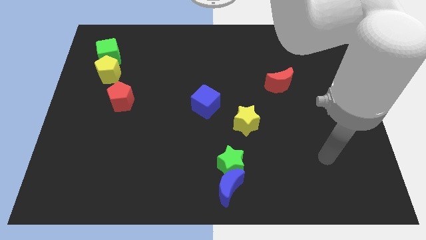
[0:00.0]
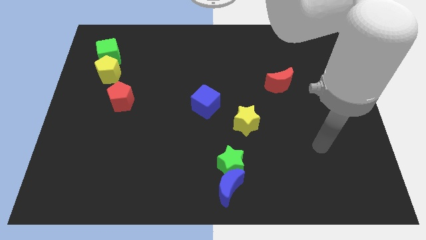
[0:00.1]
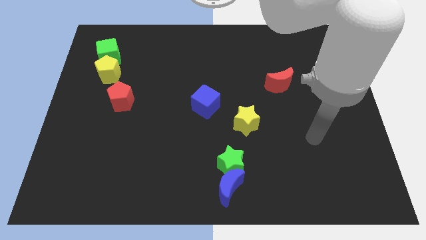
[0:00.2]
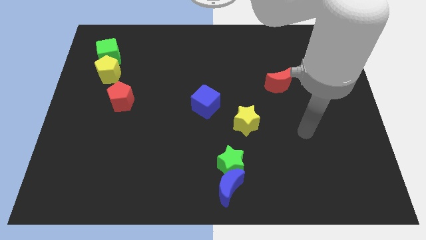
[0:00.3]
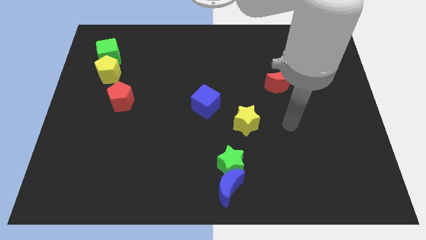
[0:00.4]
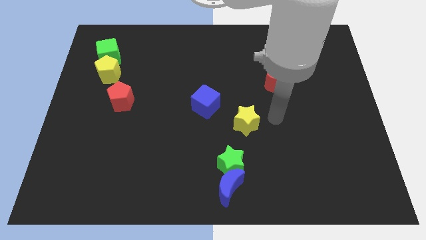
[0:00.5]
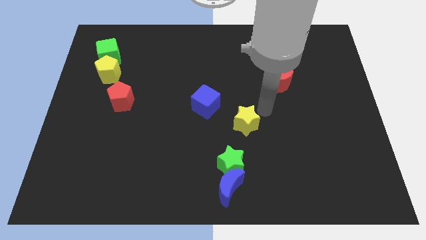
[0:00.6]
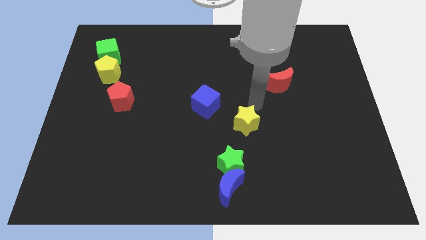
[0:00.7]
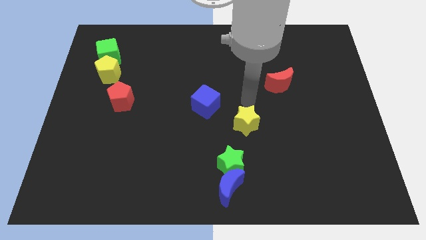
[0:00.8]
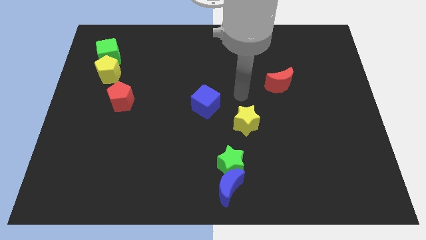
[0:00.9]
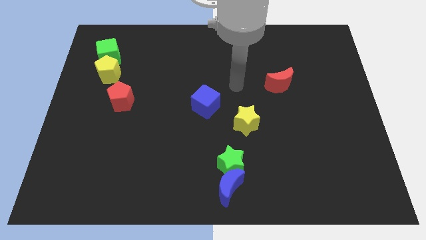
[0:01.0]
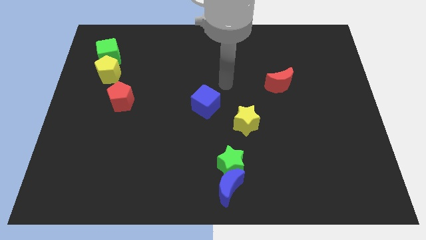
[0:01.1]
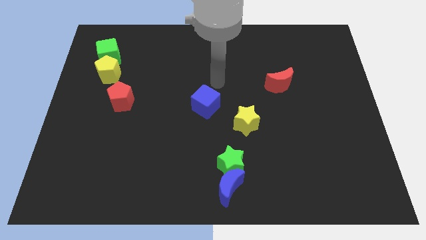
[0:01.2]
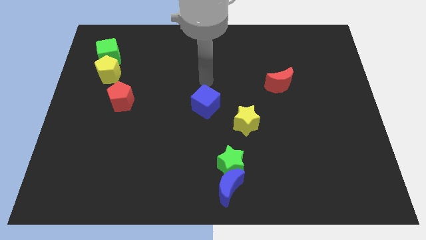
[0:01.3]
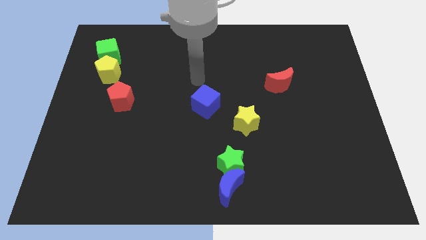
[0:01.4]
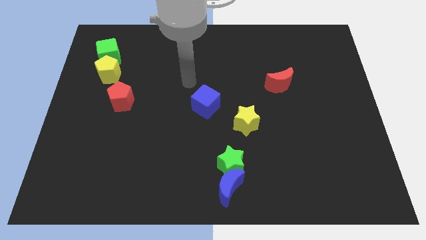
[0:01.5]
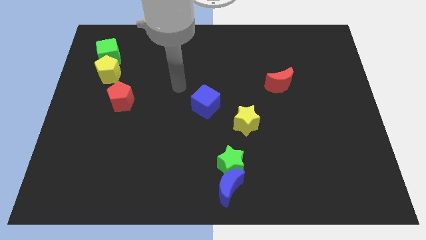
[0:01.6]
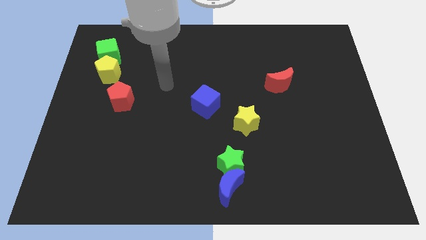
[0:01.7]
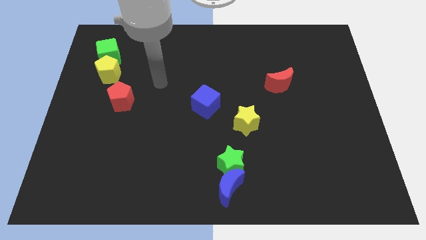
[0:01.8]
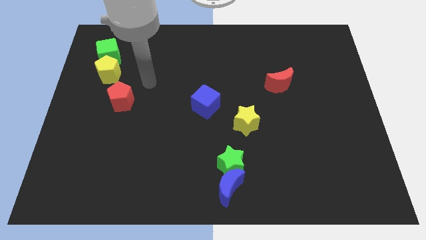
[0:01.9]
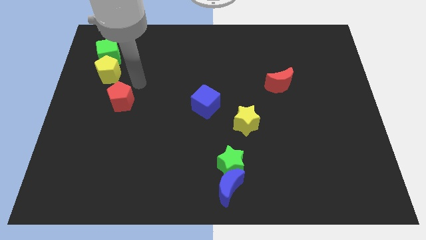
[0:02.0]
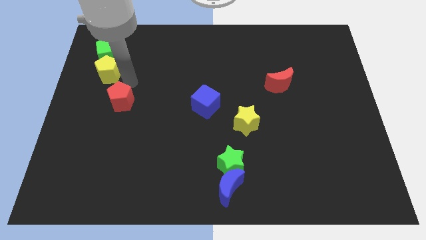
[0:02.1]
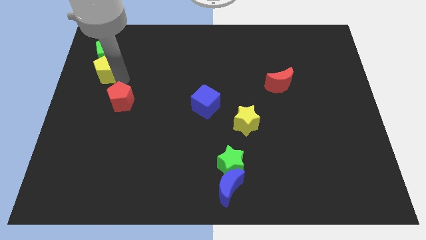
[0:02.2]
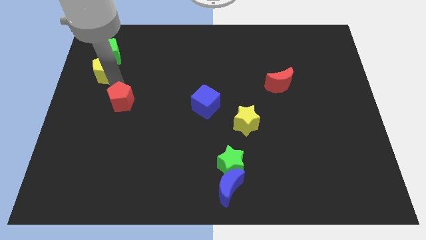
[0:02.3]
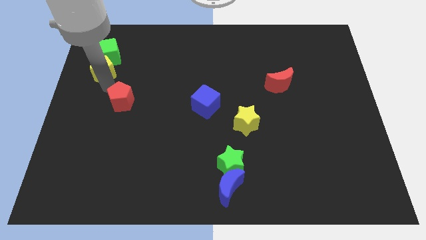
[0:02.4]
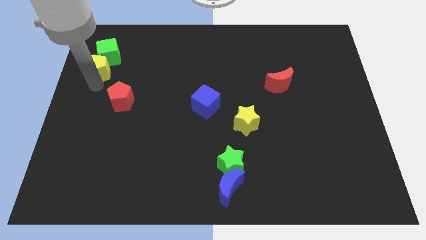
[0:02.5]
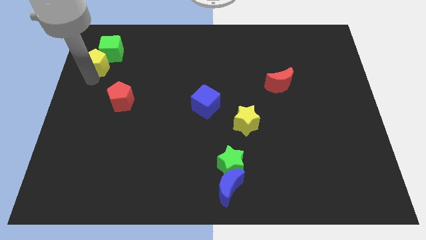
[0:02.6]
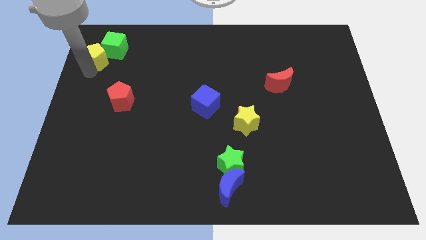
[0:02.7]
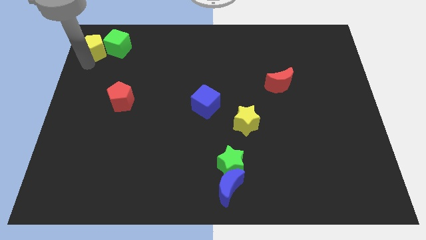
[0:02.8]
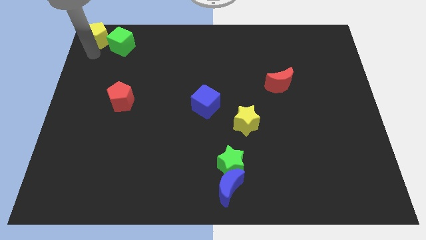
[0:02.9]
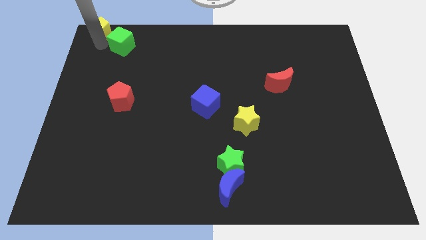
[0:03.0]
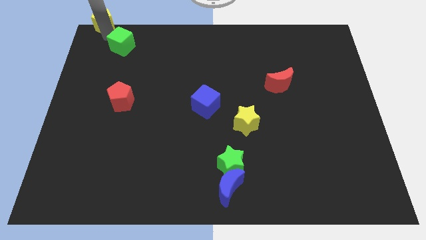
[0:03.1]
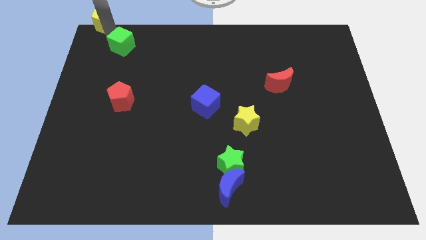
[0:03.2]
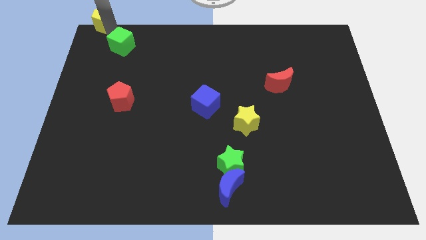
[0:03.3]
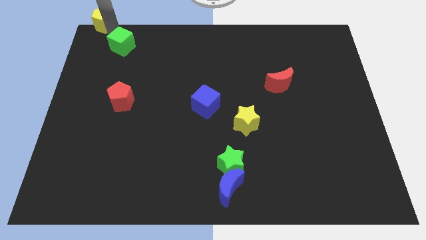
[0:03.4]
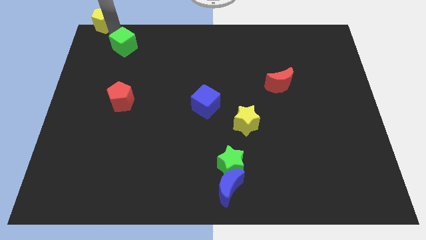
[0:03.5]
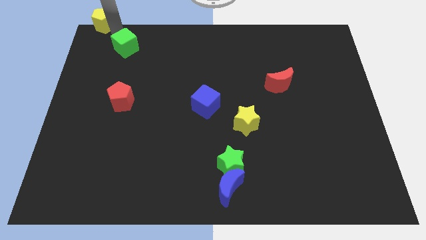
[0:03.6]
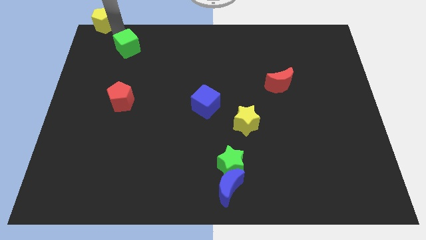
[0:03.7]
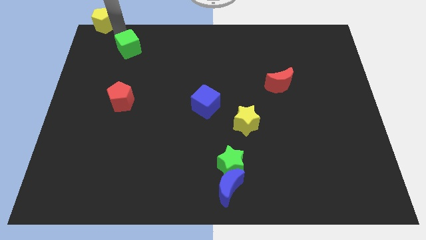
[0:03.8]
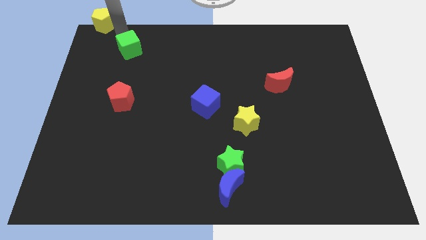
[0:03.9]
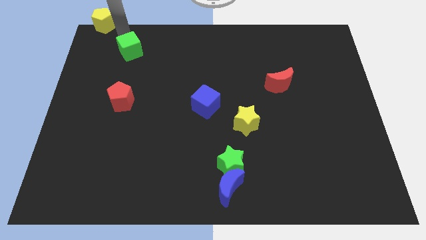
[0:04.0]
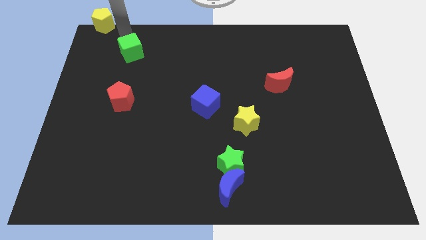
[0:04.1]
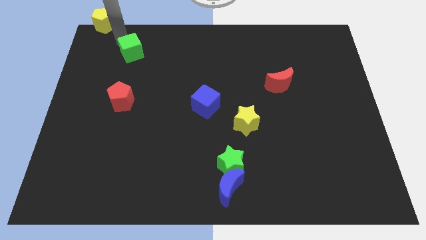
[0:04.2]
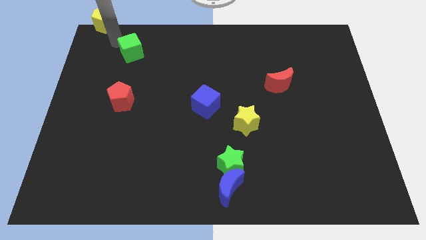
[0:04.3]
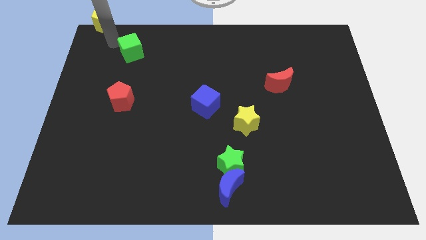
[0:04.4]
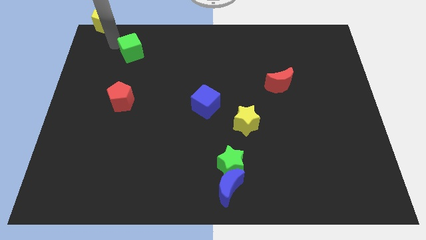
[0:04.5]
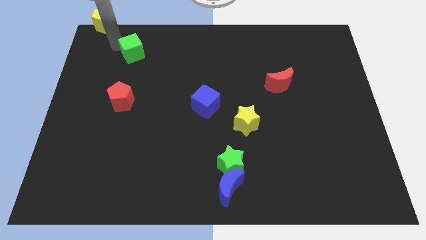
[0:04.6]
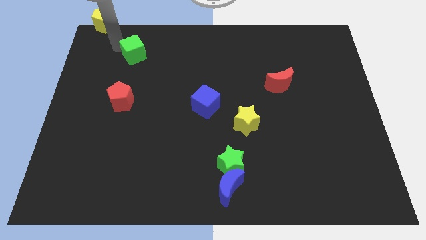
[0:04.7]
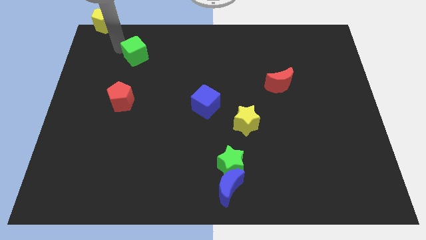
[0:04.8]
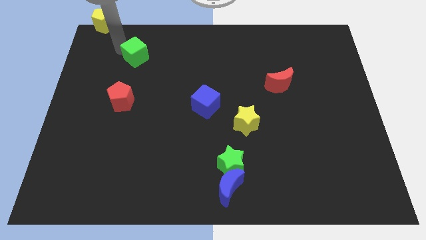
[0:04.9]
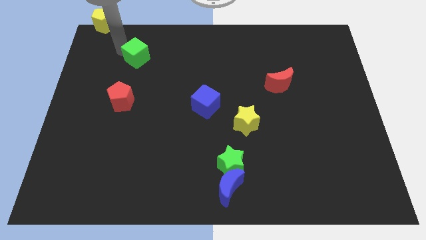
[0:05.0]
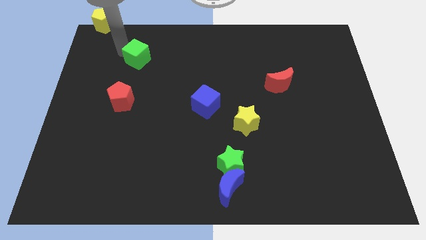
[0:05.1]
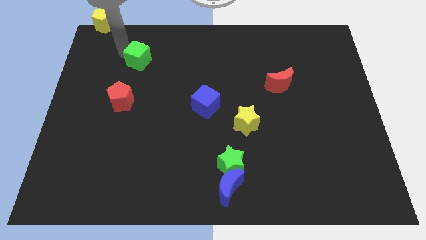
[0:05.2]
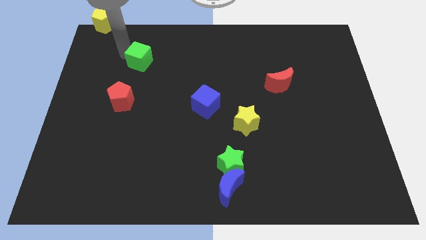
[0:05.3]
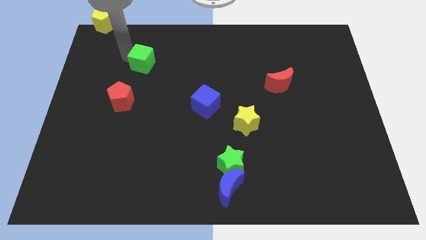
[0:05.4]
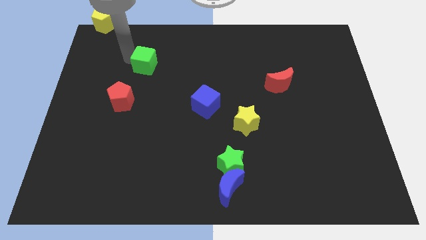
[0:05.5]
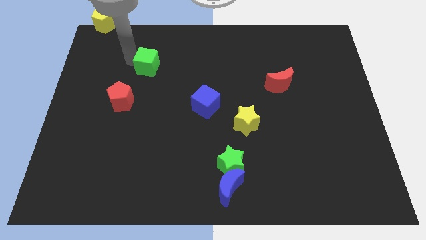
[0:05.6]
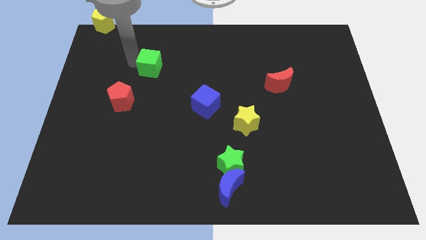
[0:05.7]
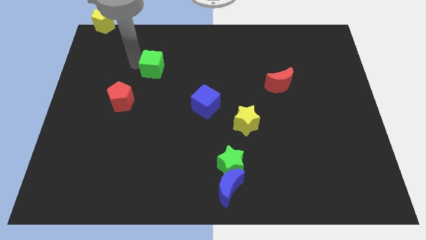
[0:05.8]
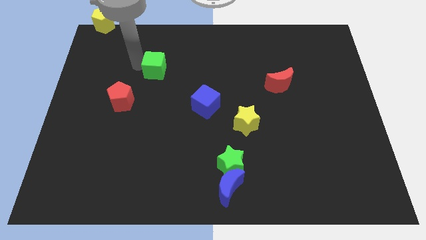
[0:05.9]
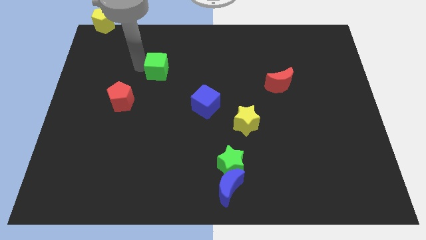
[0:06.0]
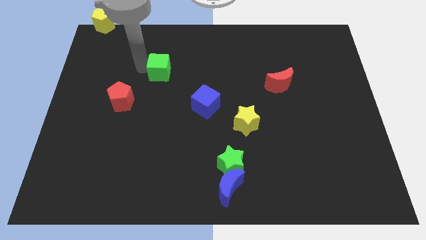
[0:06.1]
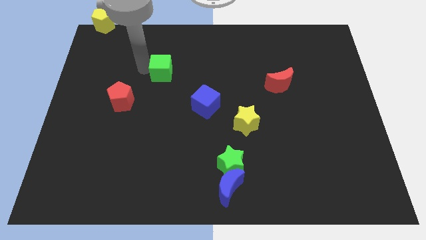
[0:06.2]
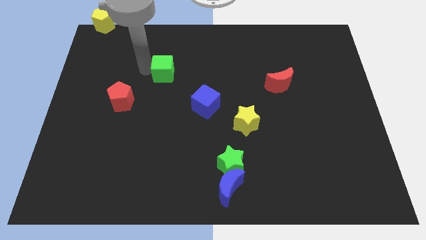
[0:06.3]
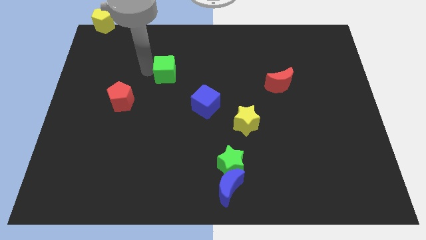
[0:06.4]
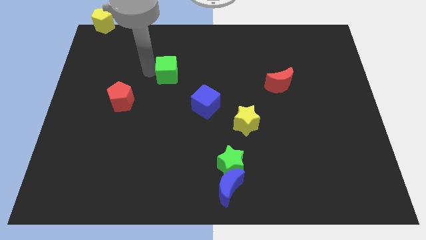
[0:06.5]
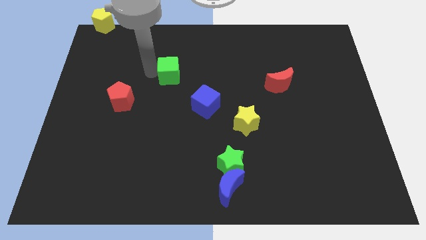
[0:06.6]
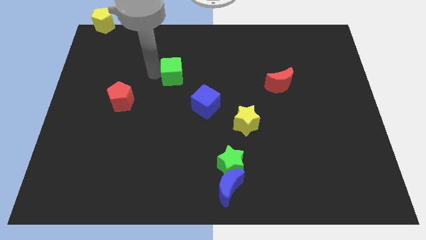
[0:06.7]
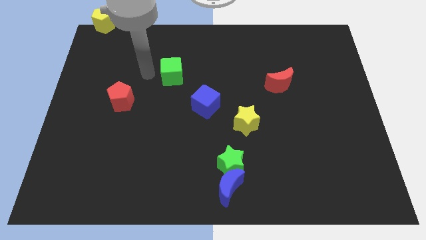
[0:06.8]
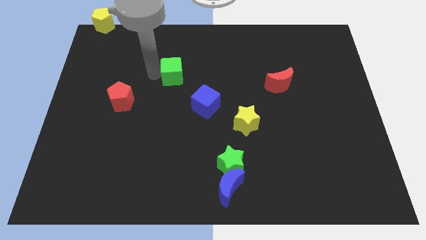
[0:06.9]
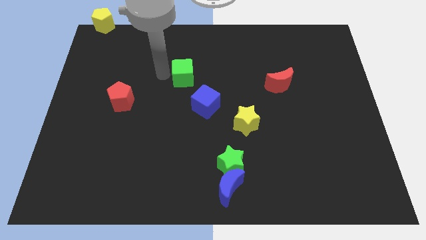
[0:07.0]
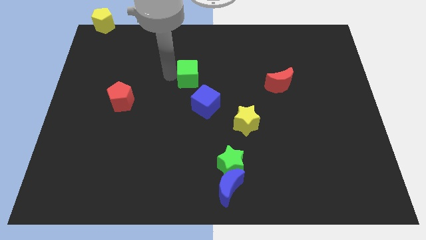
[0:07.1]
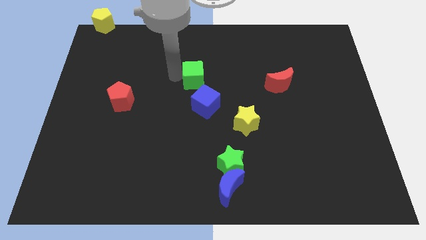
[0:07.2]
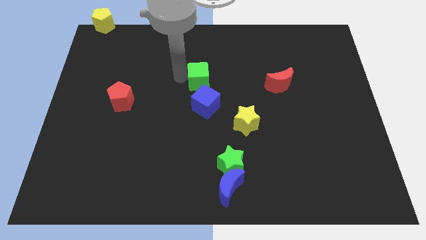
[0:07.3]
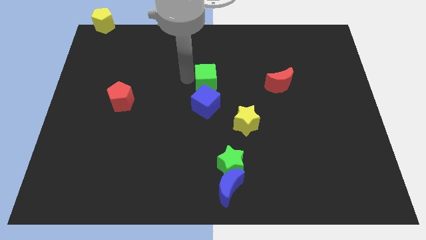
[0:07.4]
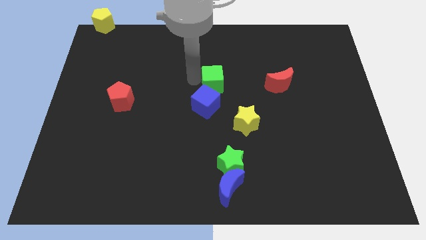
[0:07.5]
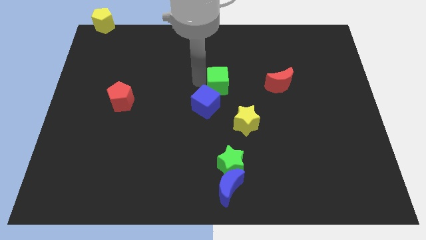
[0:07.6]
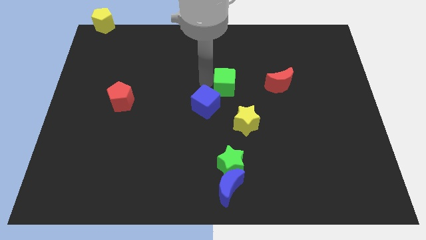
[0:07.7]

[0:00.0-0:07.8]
put the green cube above the yellow star
